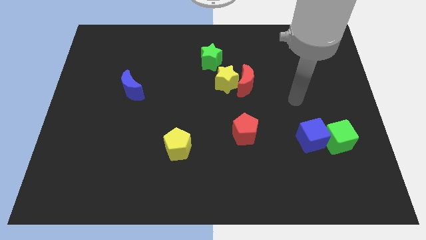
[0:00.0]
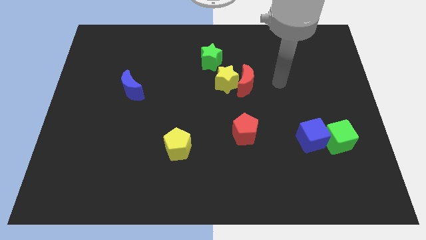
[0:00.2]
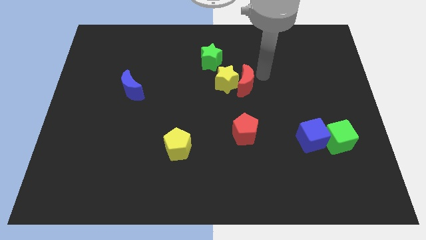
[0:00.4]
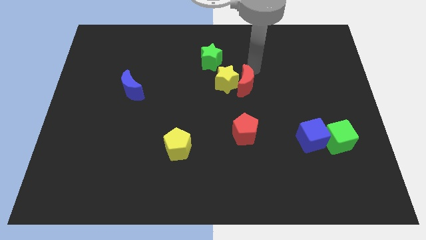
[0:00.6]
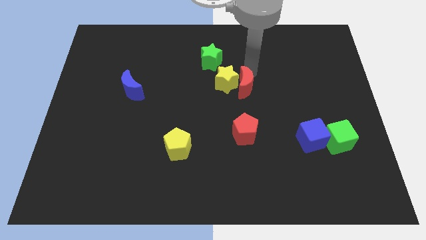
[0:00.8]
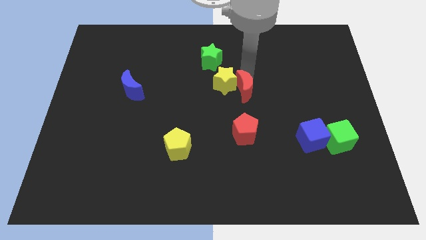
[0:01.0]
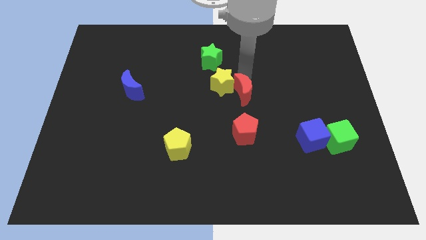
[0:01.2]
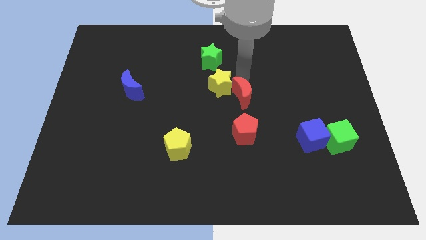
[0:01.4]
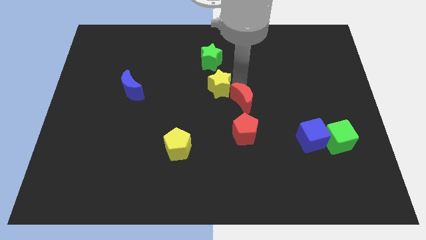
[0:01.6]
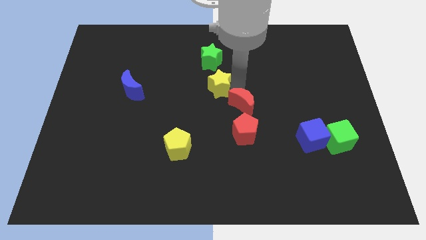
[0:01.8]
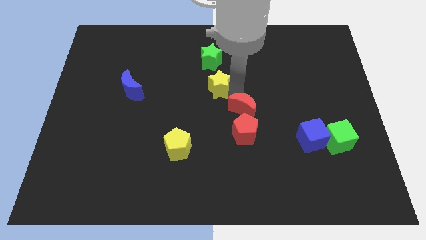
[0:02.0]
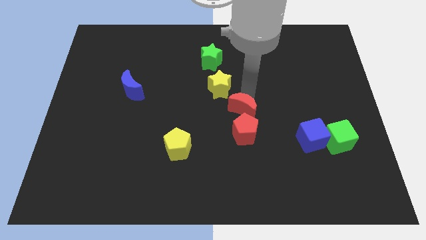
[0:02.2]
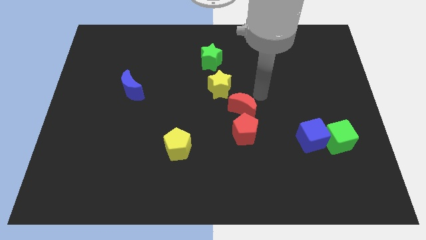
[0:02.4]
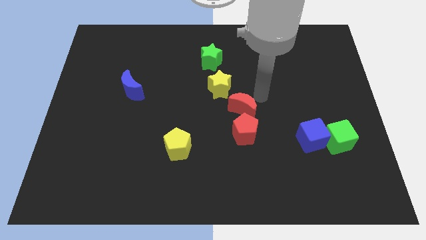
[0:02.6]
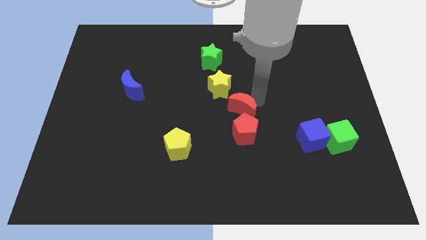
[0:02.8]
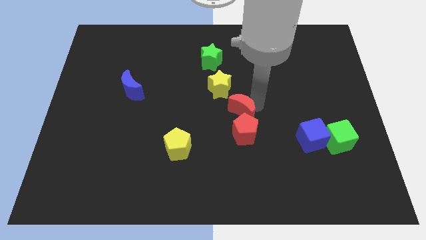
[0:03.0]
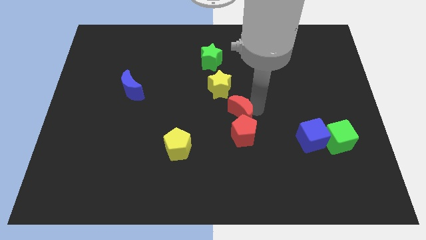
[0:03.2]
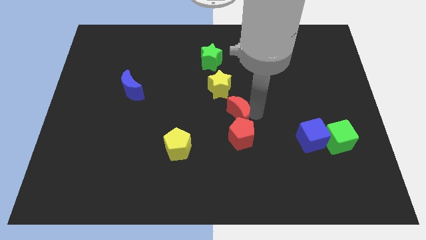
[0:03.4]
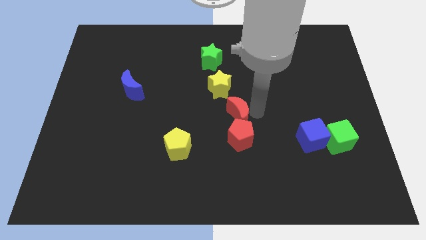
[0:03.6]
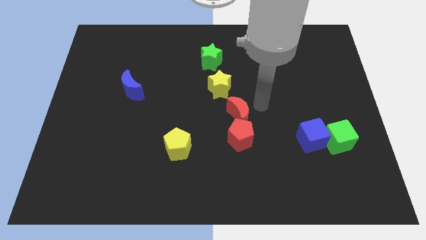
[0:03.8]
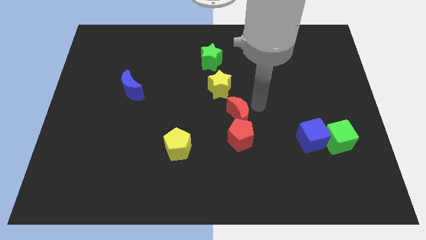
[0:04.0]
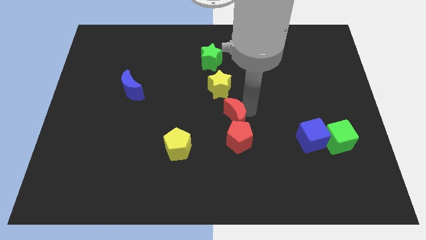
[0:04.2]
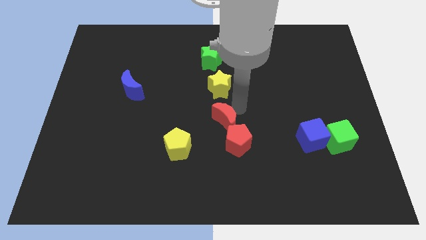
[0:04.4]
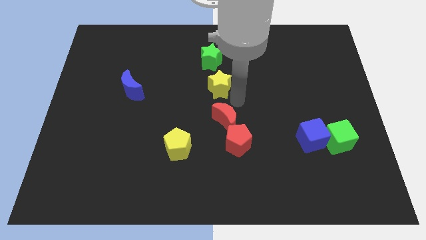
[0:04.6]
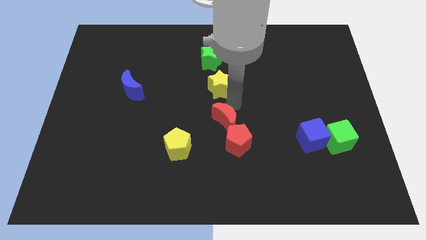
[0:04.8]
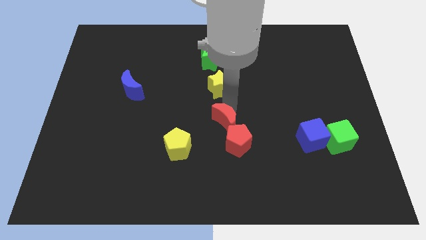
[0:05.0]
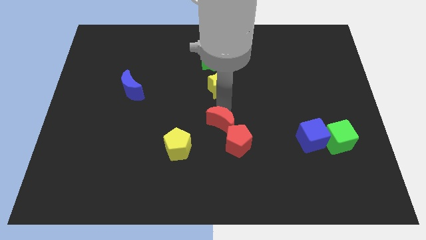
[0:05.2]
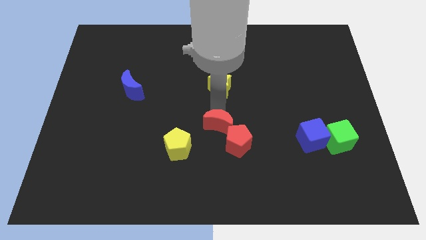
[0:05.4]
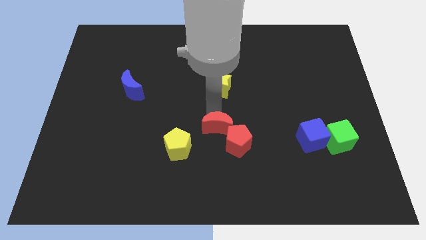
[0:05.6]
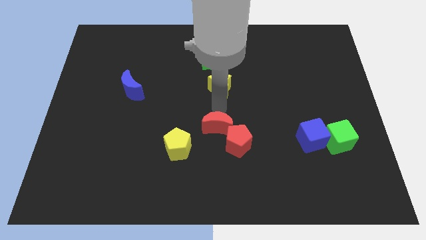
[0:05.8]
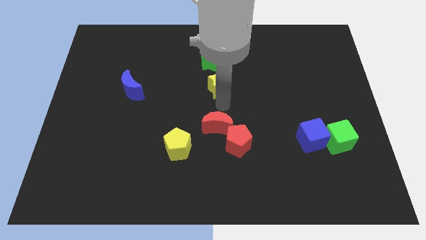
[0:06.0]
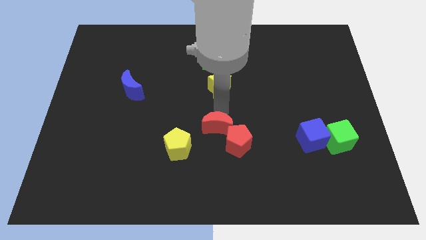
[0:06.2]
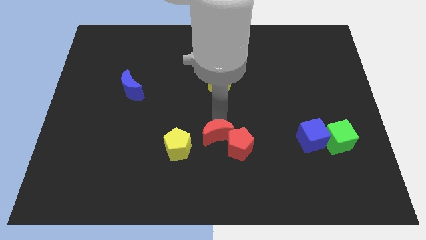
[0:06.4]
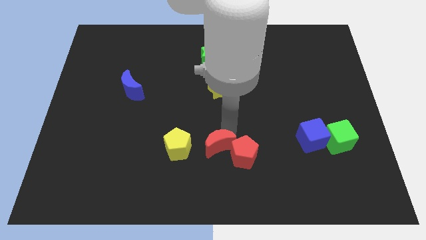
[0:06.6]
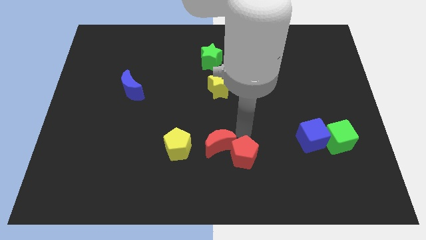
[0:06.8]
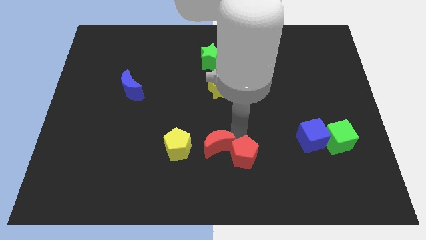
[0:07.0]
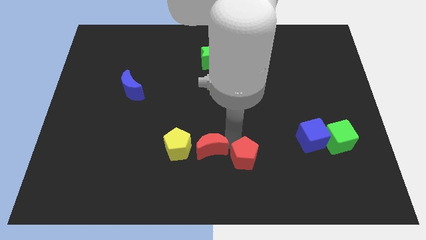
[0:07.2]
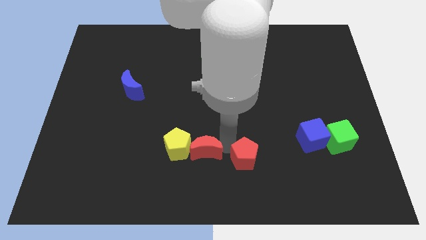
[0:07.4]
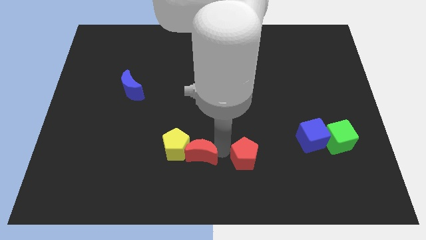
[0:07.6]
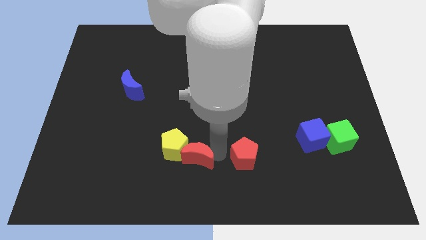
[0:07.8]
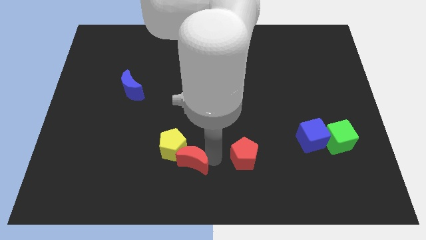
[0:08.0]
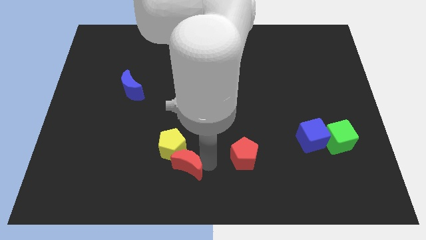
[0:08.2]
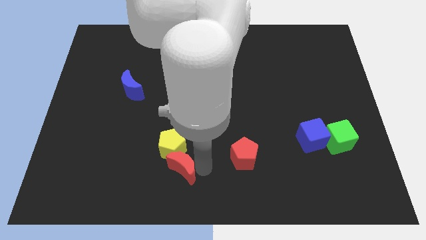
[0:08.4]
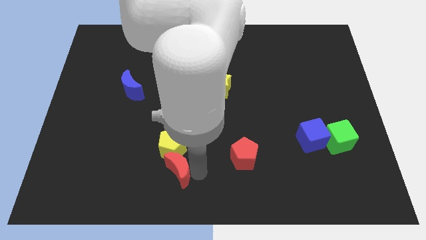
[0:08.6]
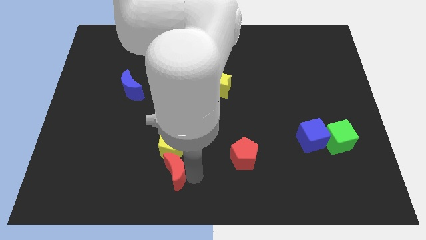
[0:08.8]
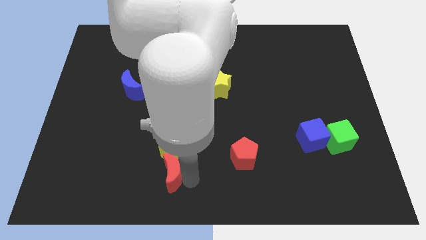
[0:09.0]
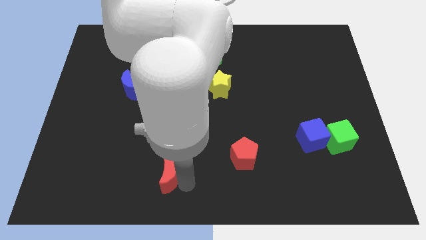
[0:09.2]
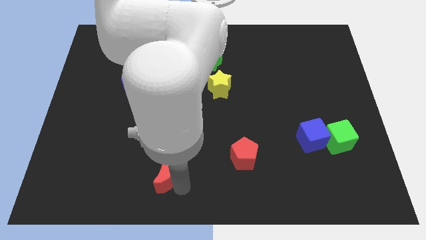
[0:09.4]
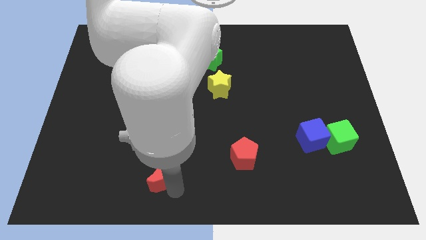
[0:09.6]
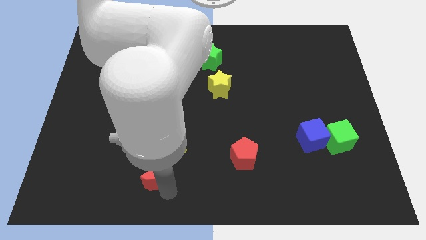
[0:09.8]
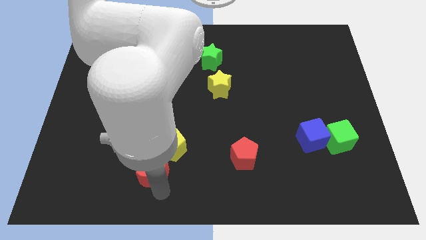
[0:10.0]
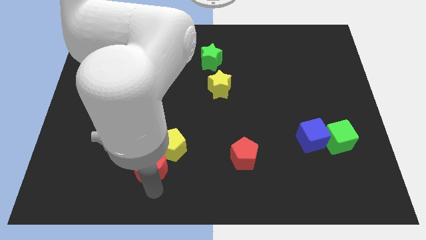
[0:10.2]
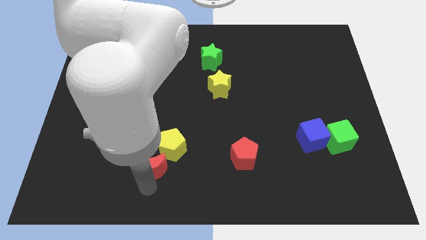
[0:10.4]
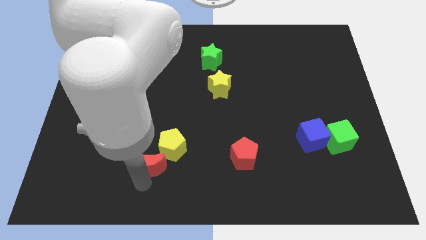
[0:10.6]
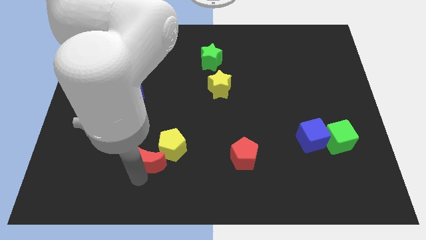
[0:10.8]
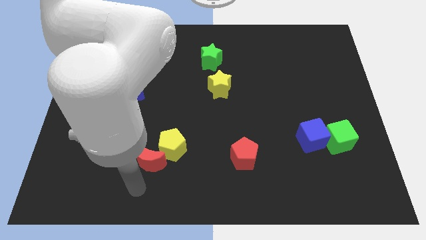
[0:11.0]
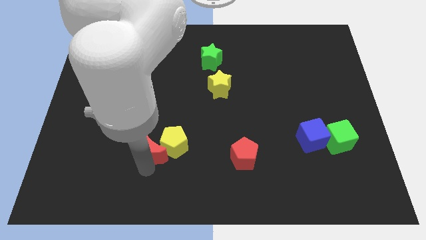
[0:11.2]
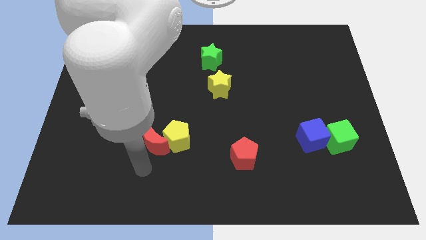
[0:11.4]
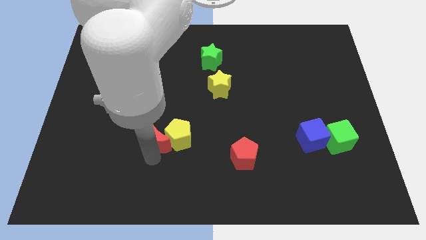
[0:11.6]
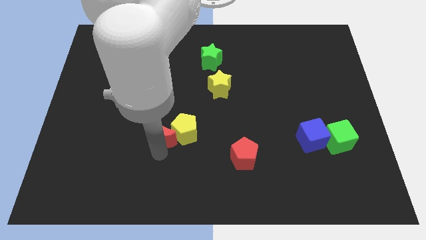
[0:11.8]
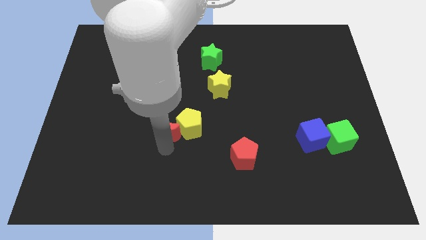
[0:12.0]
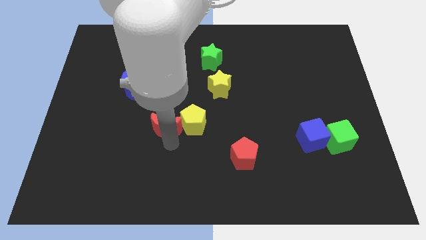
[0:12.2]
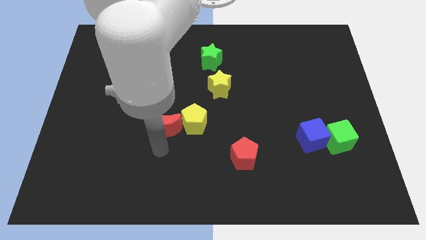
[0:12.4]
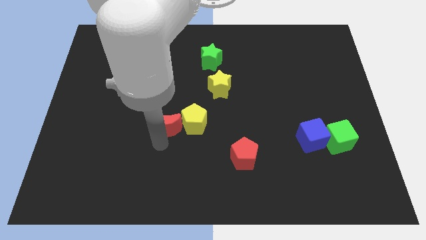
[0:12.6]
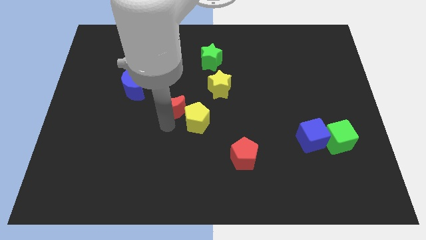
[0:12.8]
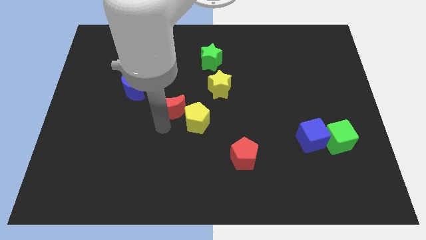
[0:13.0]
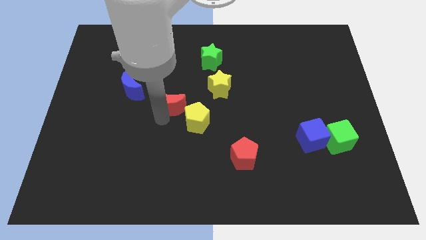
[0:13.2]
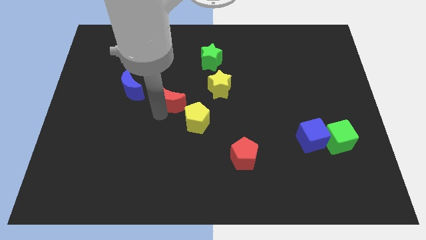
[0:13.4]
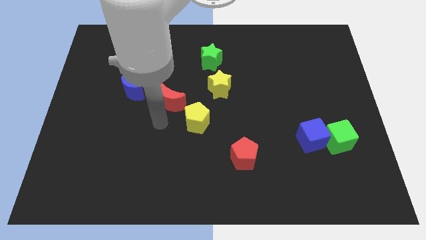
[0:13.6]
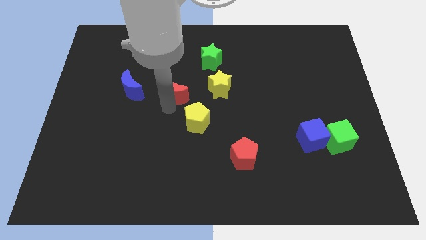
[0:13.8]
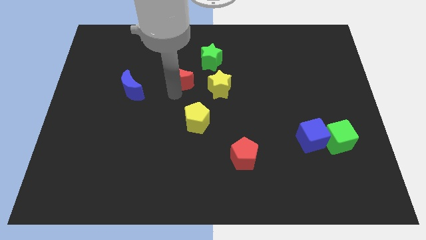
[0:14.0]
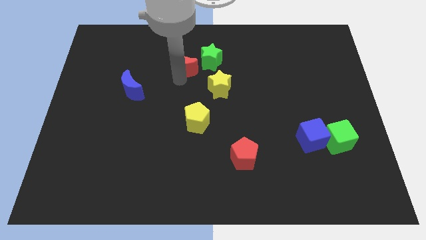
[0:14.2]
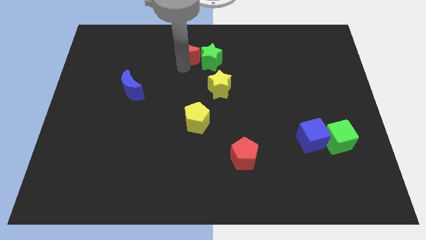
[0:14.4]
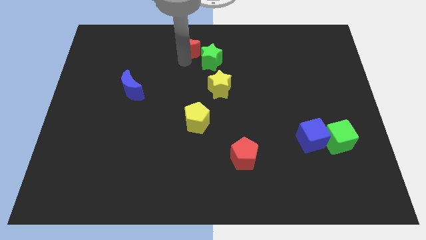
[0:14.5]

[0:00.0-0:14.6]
slide the red moon to the towards your base
